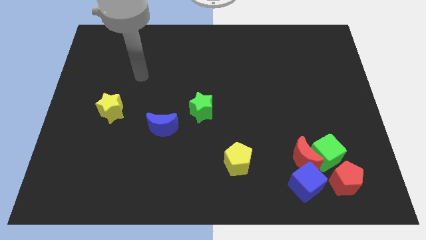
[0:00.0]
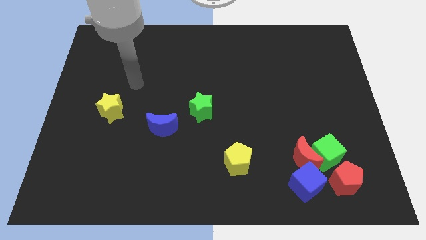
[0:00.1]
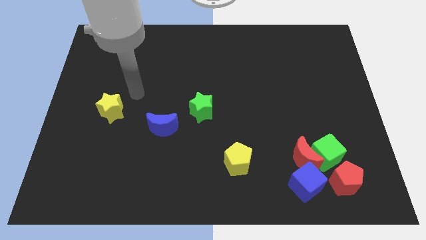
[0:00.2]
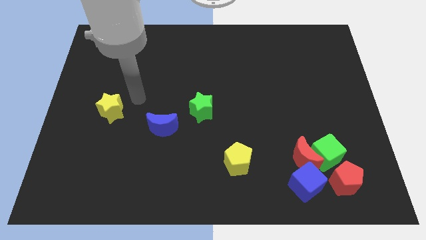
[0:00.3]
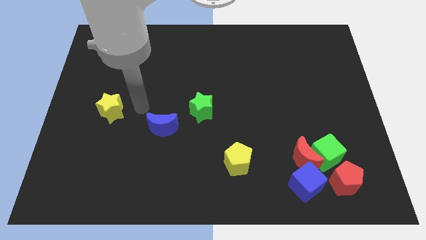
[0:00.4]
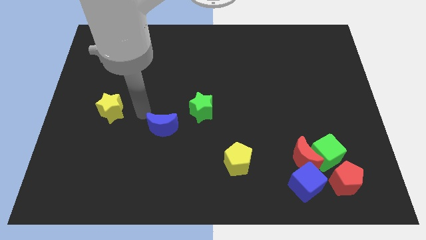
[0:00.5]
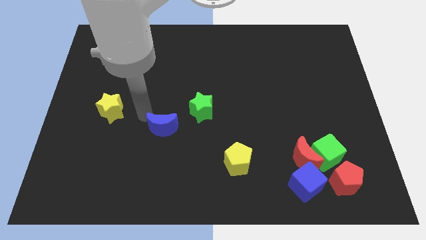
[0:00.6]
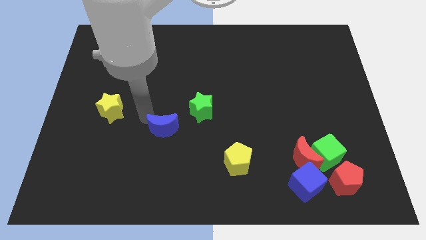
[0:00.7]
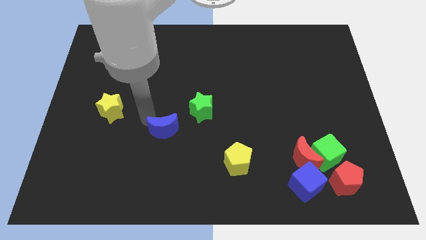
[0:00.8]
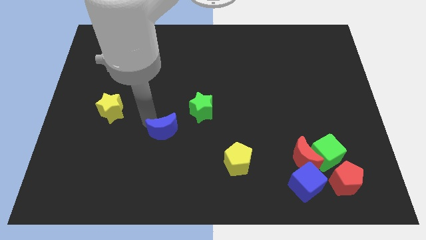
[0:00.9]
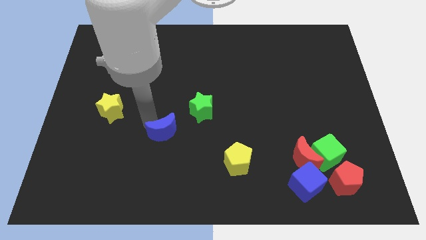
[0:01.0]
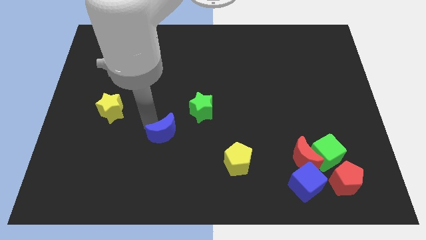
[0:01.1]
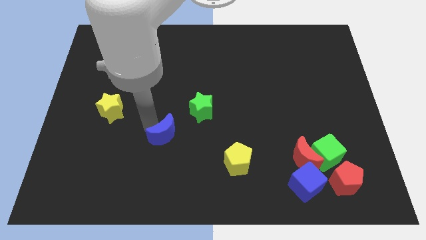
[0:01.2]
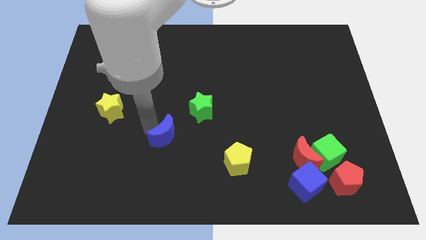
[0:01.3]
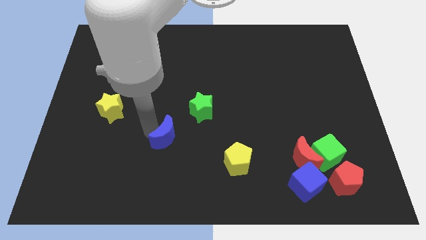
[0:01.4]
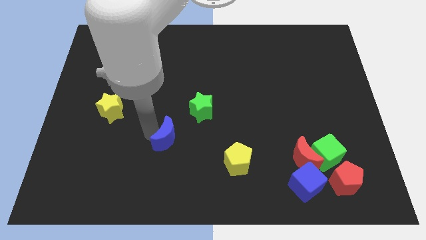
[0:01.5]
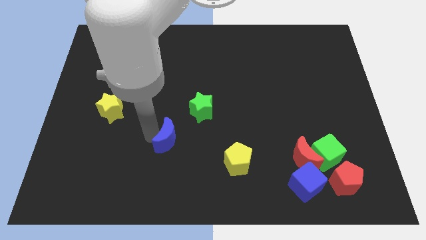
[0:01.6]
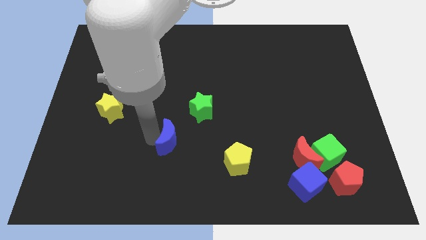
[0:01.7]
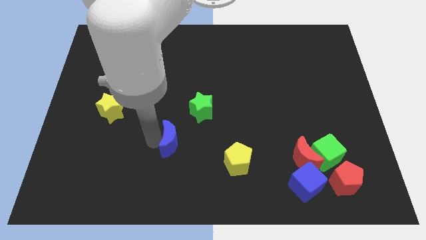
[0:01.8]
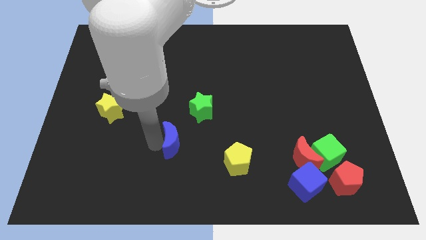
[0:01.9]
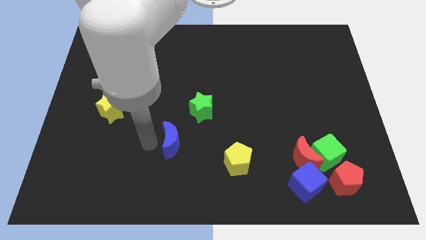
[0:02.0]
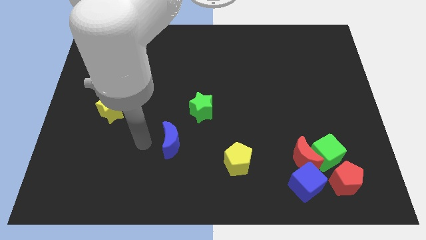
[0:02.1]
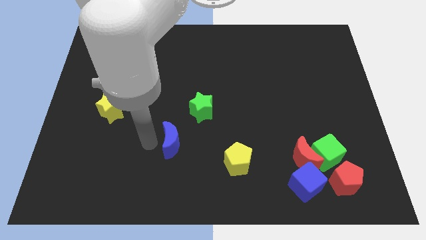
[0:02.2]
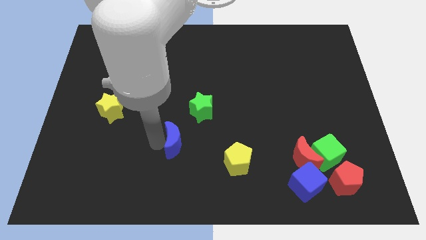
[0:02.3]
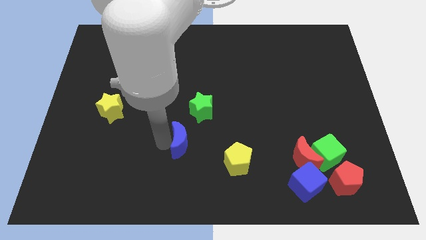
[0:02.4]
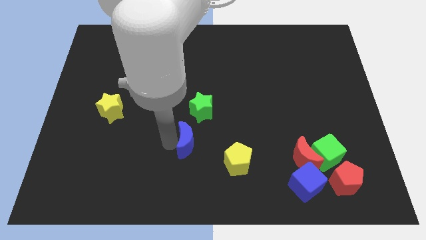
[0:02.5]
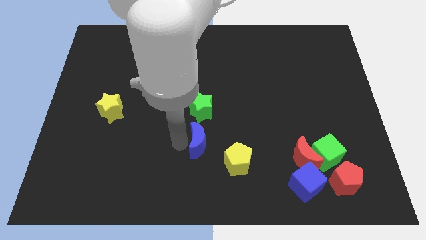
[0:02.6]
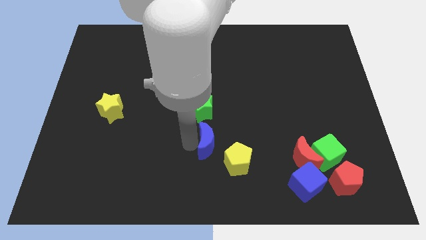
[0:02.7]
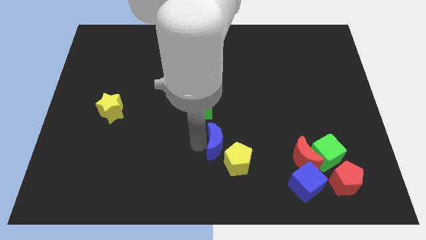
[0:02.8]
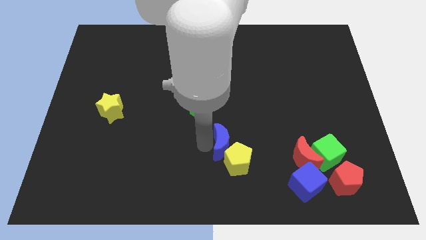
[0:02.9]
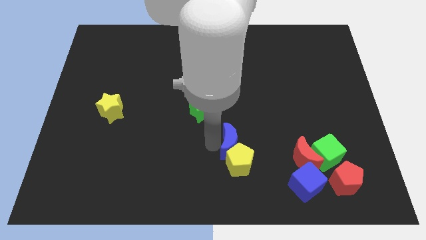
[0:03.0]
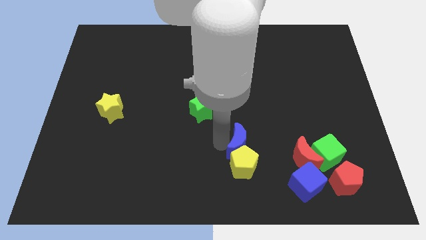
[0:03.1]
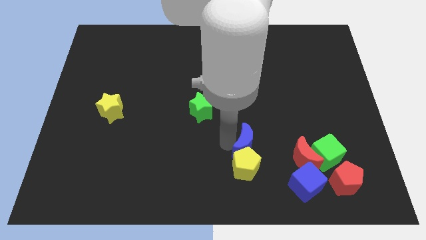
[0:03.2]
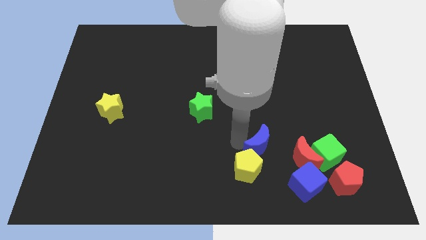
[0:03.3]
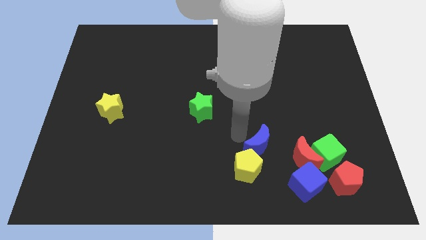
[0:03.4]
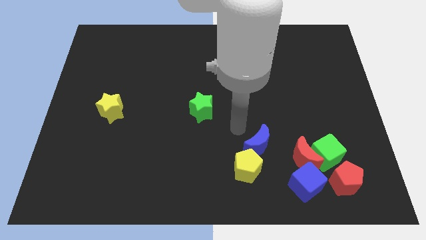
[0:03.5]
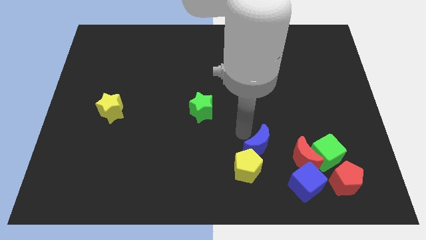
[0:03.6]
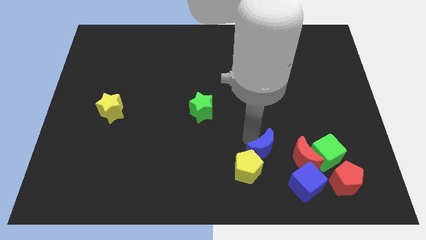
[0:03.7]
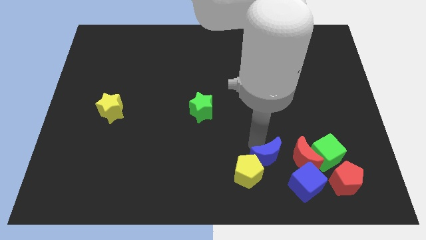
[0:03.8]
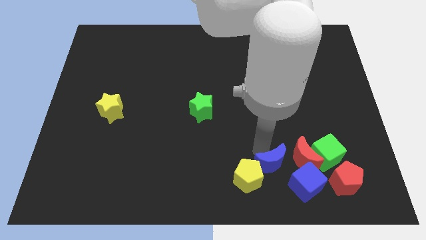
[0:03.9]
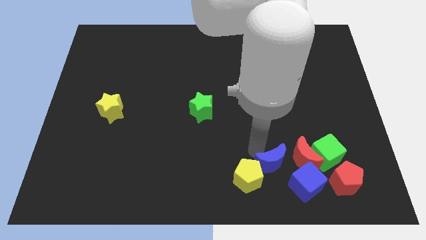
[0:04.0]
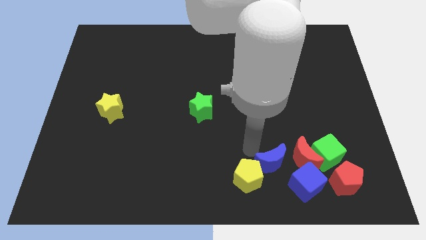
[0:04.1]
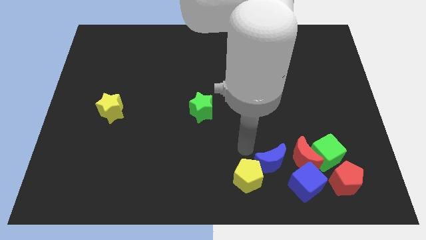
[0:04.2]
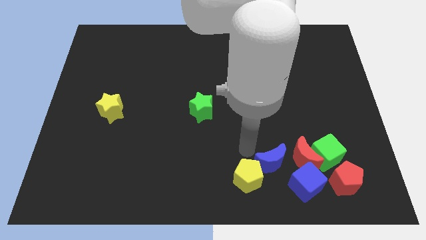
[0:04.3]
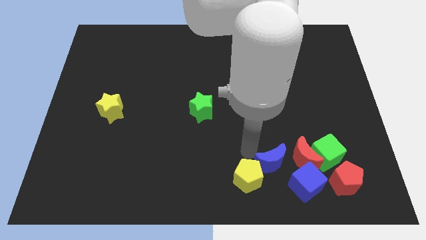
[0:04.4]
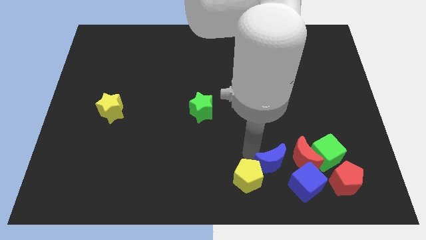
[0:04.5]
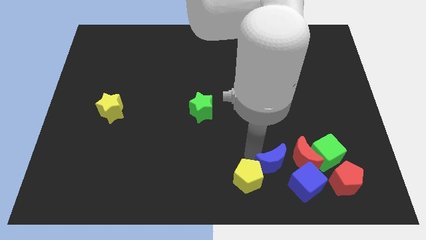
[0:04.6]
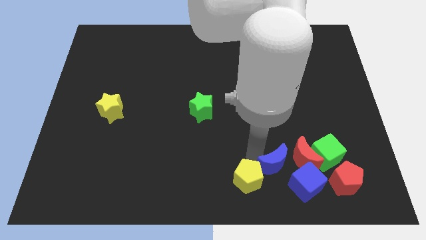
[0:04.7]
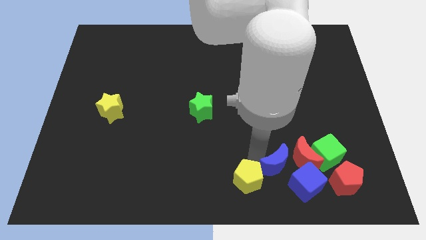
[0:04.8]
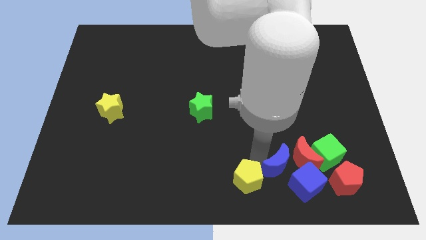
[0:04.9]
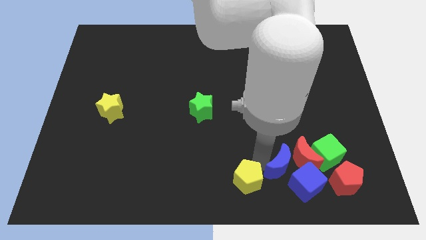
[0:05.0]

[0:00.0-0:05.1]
move the blue moon to the blue cube

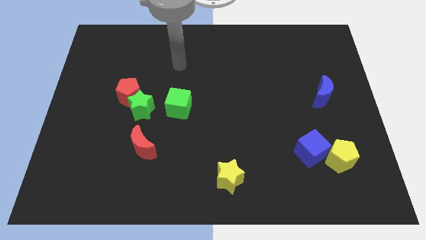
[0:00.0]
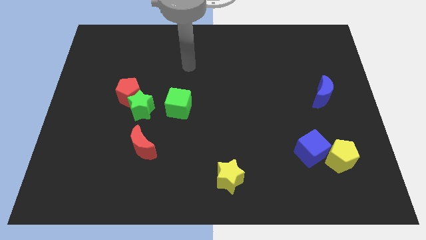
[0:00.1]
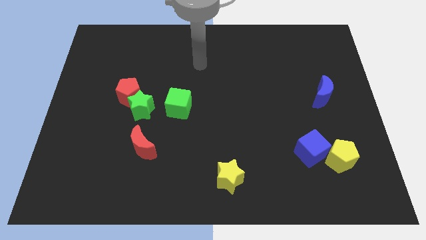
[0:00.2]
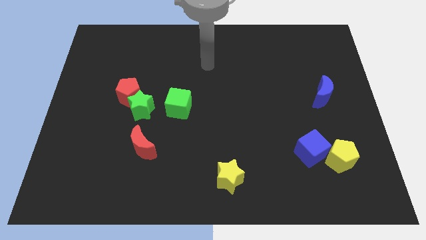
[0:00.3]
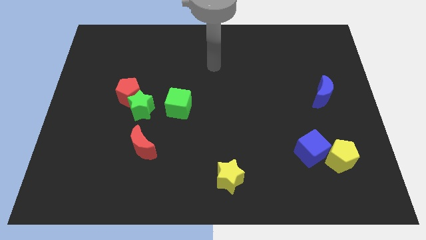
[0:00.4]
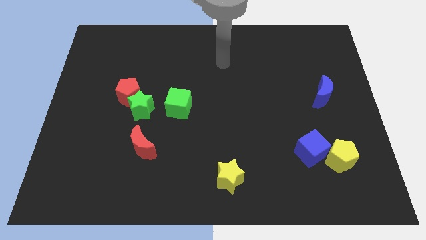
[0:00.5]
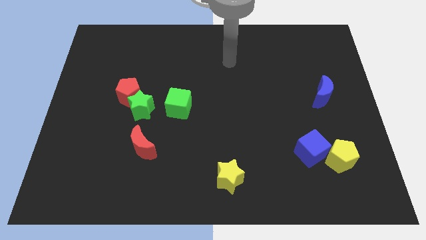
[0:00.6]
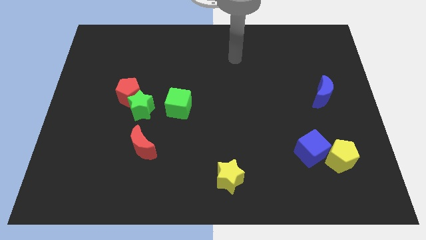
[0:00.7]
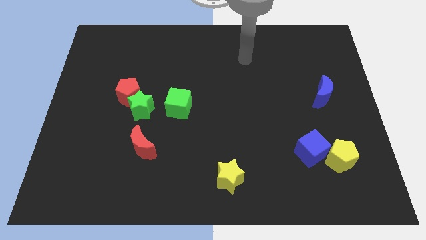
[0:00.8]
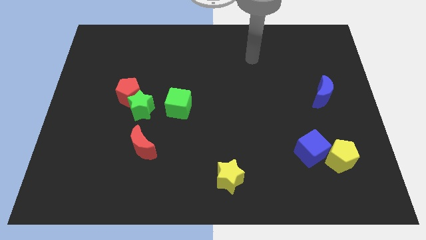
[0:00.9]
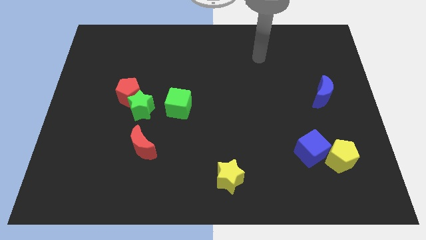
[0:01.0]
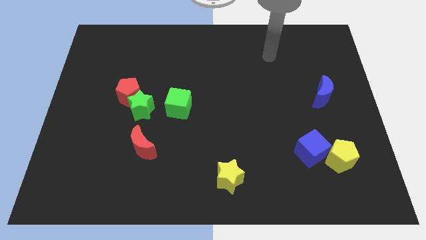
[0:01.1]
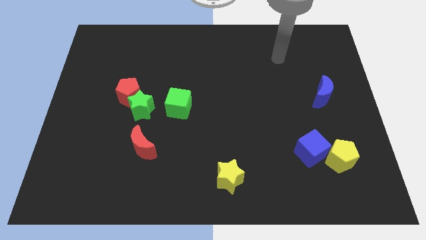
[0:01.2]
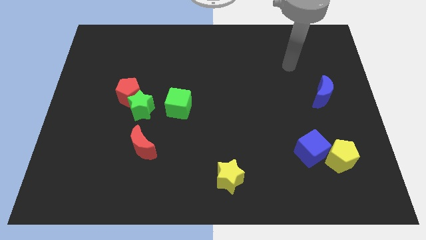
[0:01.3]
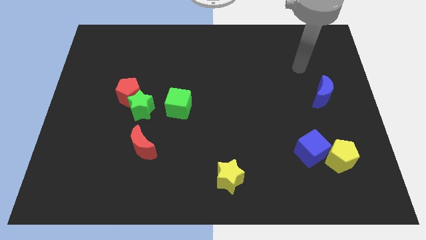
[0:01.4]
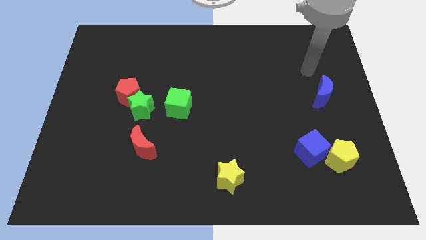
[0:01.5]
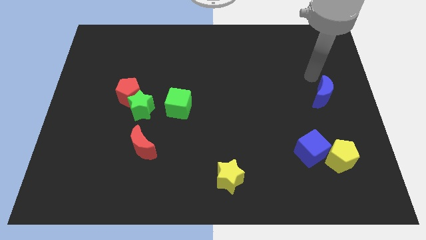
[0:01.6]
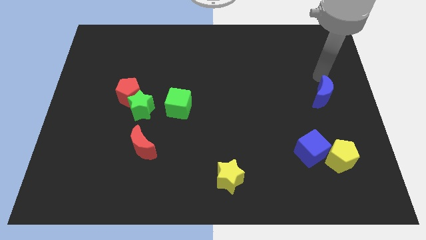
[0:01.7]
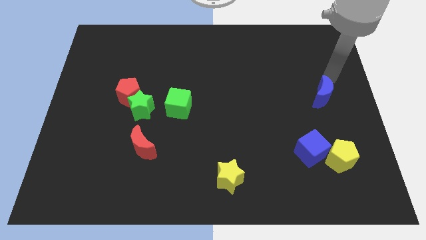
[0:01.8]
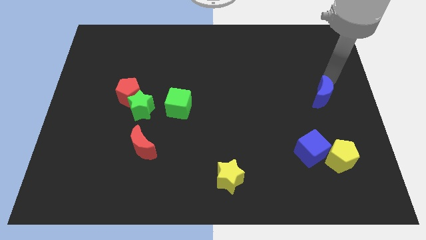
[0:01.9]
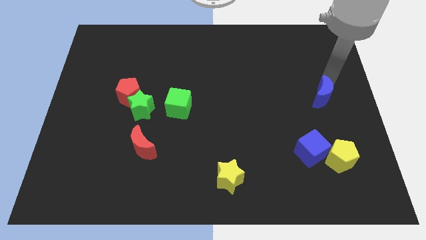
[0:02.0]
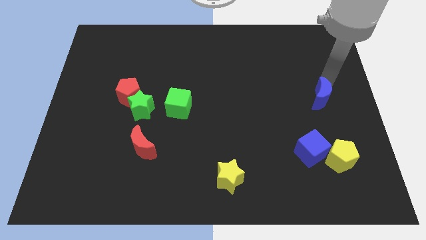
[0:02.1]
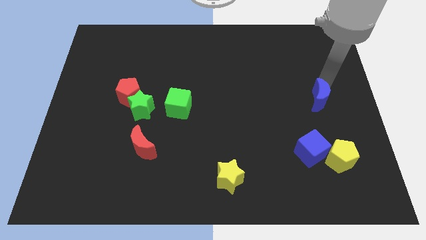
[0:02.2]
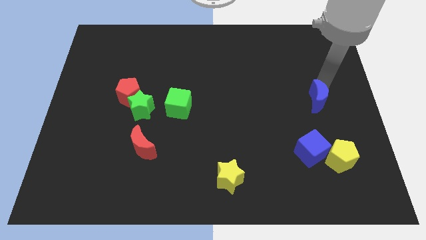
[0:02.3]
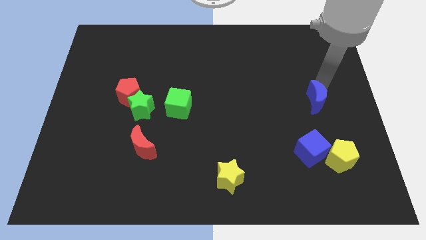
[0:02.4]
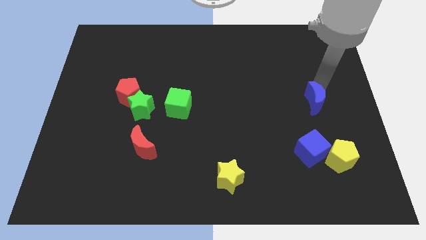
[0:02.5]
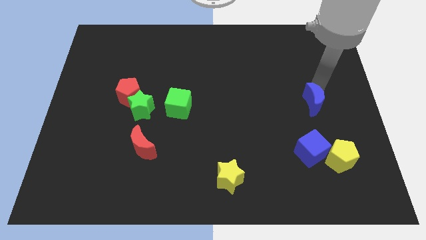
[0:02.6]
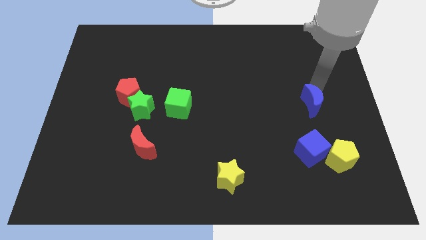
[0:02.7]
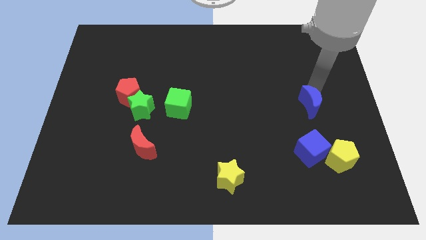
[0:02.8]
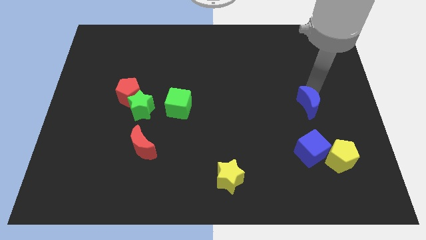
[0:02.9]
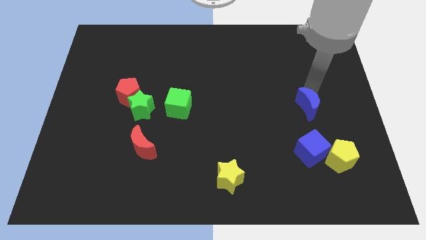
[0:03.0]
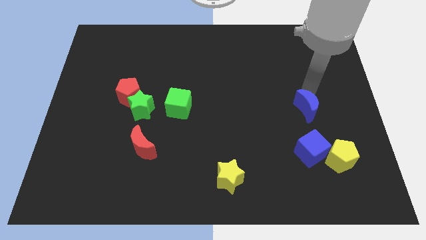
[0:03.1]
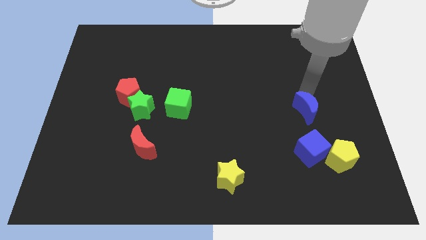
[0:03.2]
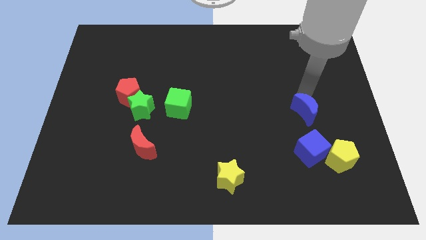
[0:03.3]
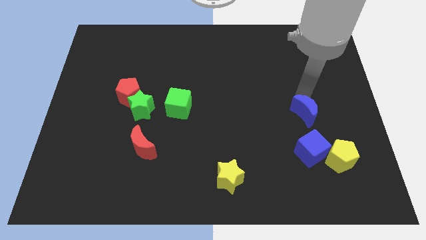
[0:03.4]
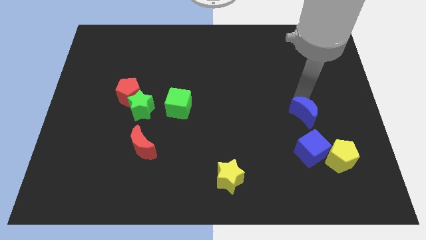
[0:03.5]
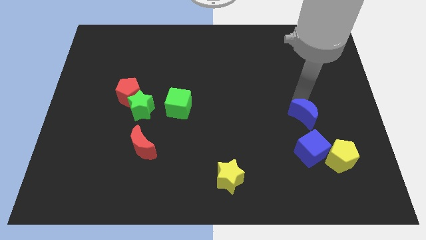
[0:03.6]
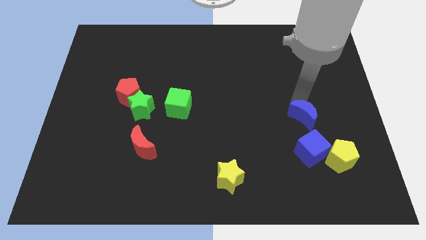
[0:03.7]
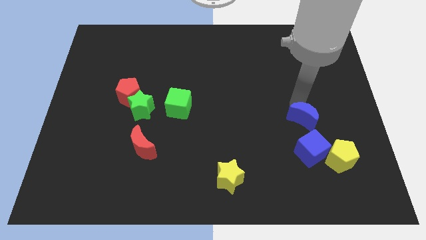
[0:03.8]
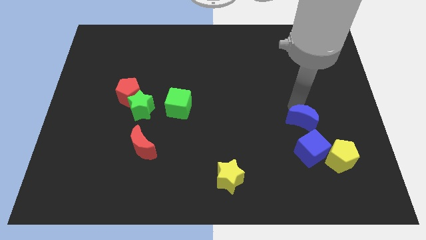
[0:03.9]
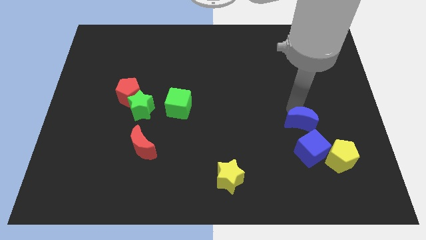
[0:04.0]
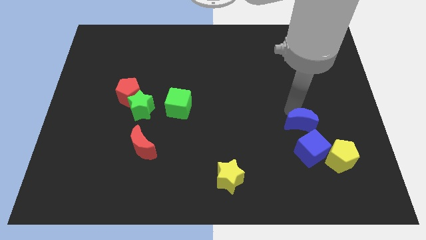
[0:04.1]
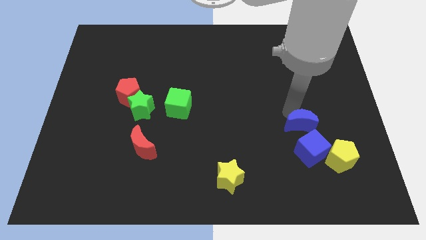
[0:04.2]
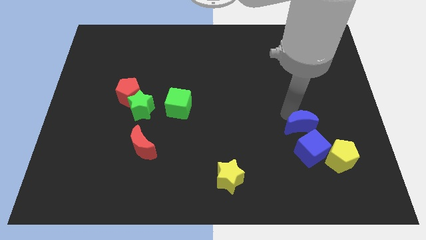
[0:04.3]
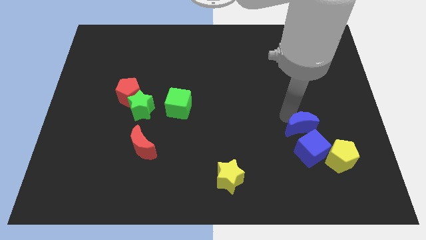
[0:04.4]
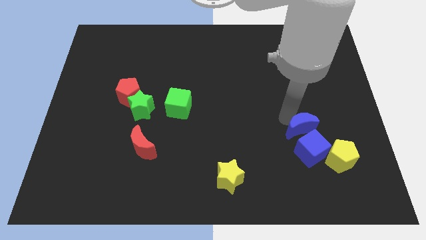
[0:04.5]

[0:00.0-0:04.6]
put the blue moon close to the blue cube
